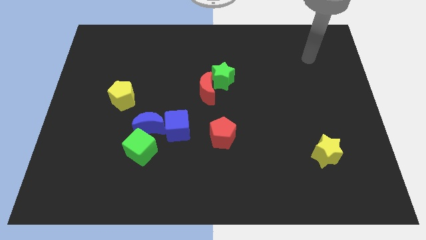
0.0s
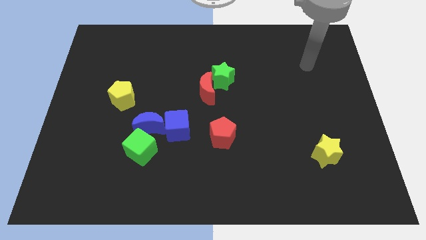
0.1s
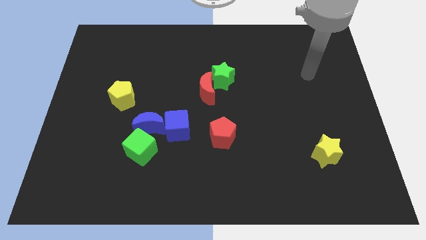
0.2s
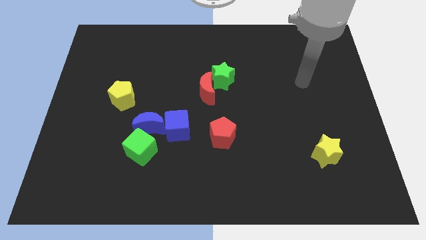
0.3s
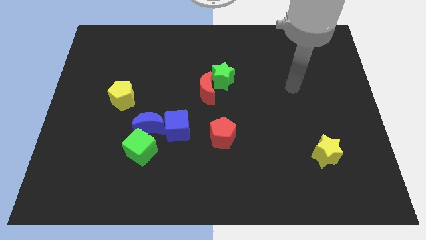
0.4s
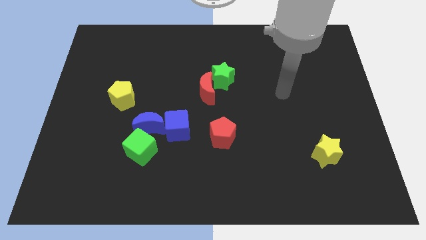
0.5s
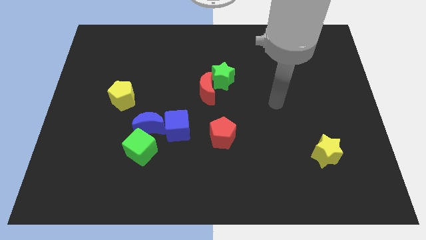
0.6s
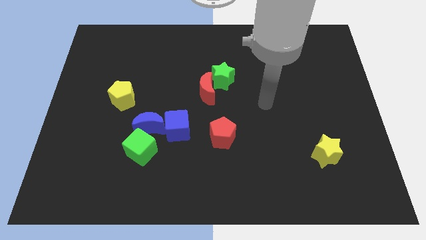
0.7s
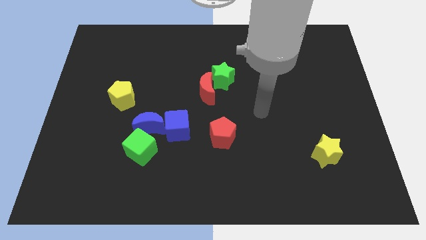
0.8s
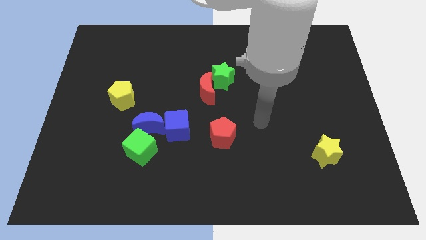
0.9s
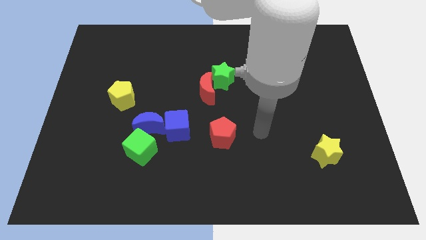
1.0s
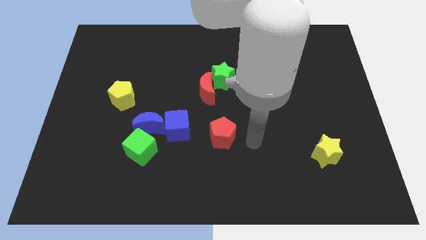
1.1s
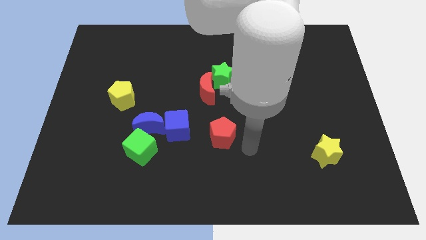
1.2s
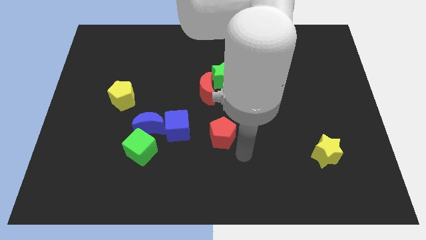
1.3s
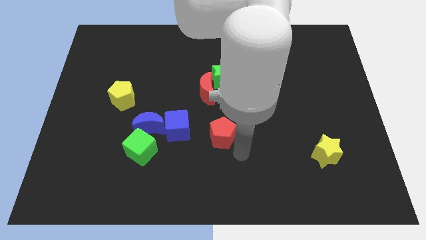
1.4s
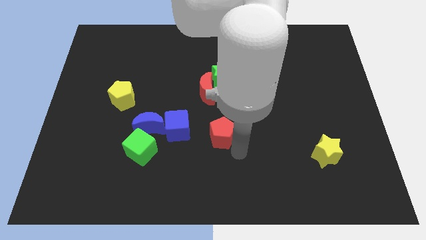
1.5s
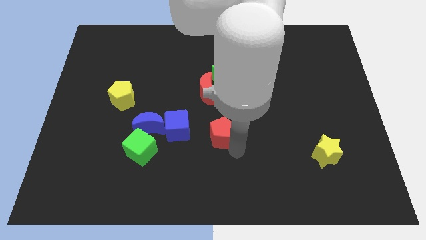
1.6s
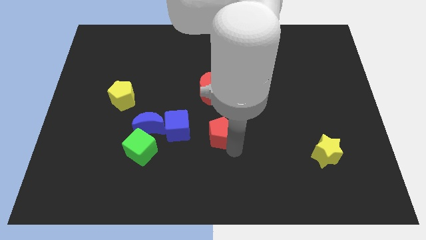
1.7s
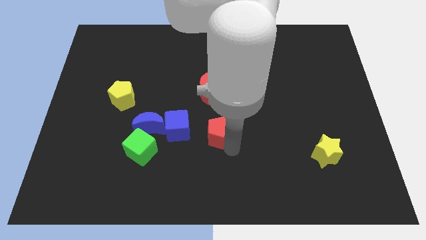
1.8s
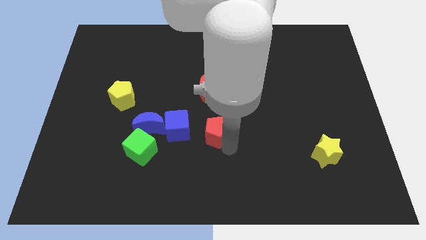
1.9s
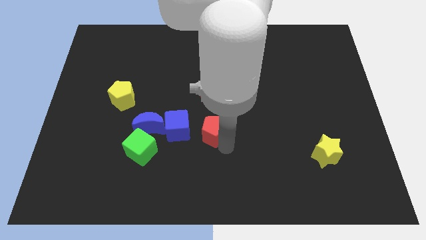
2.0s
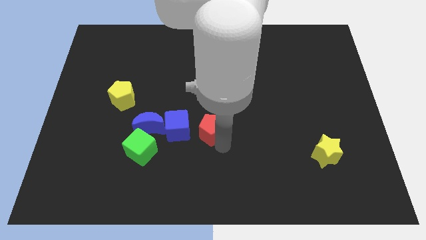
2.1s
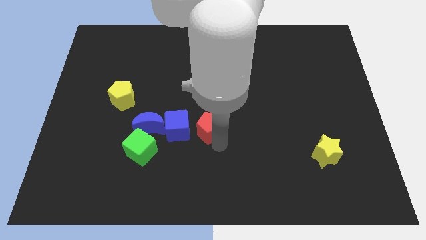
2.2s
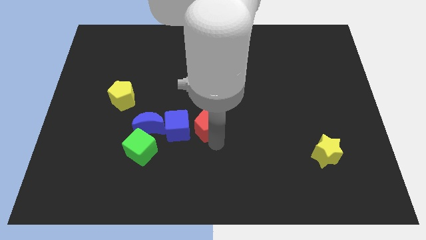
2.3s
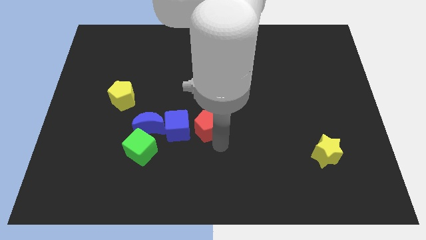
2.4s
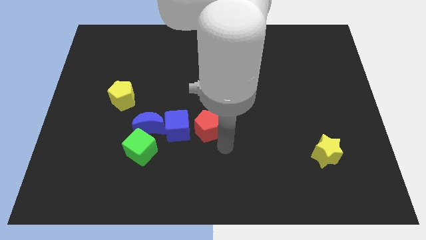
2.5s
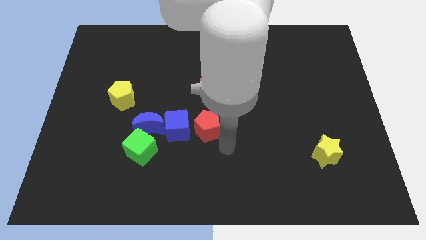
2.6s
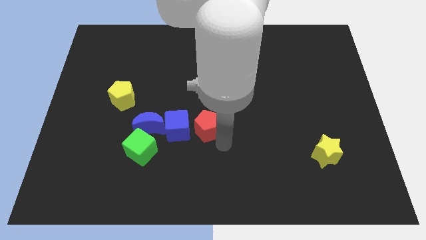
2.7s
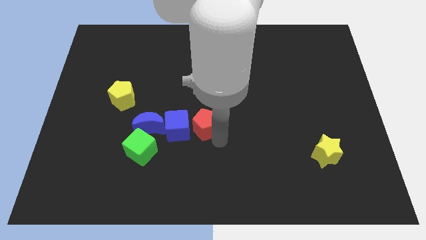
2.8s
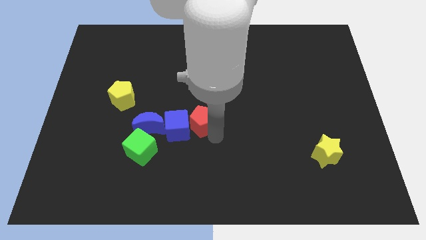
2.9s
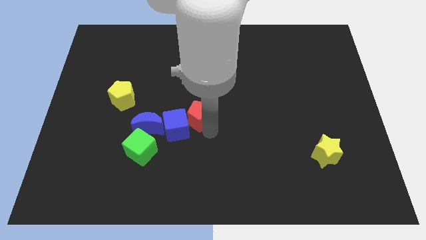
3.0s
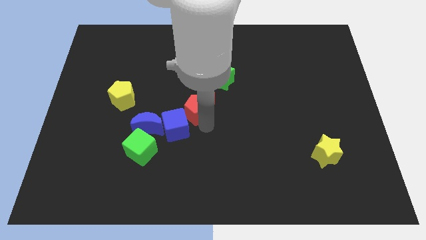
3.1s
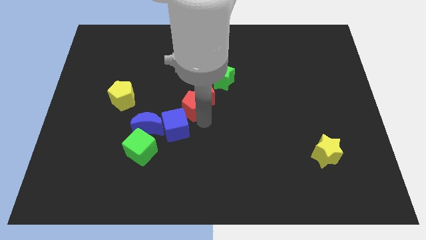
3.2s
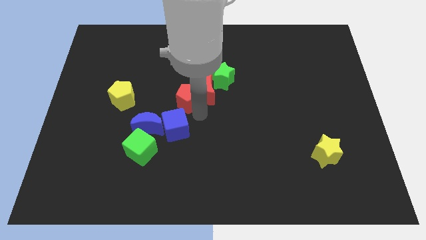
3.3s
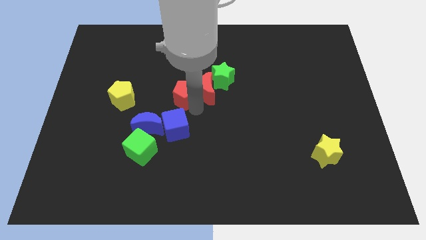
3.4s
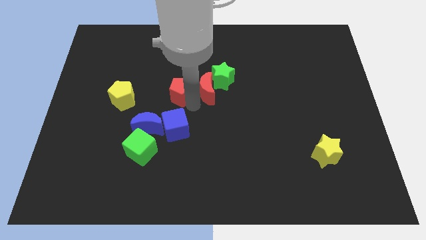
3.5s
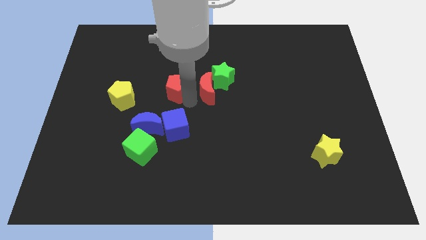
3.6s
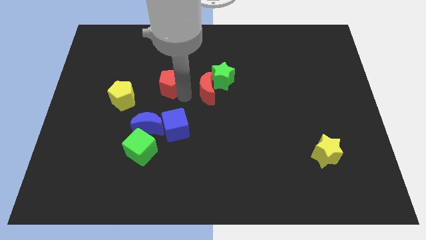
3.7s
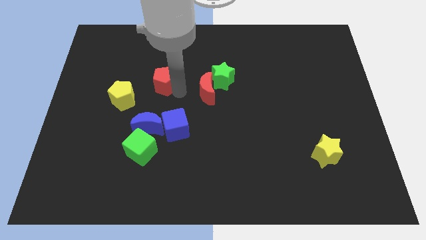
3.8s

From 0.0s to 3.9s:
move the red pentagon upwards and left

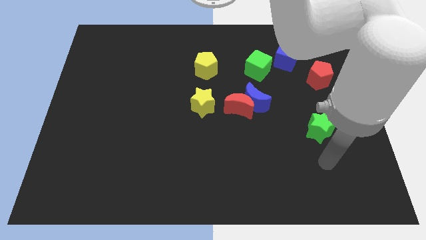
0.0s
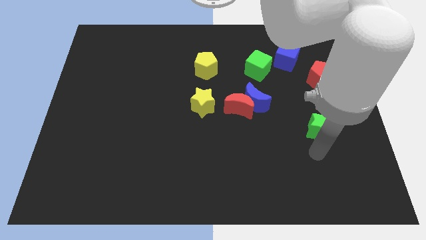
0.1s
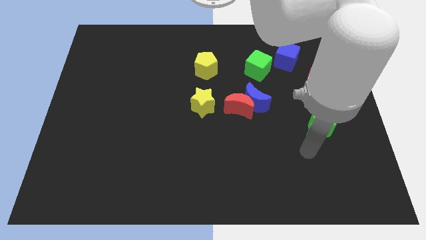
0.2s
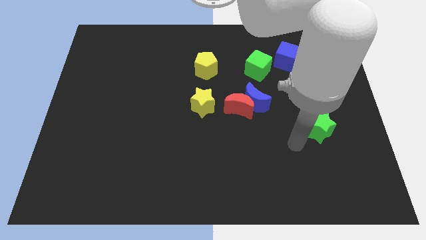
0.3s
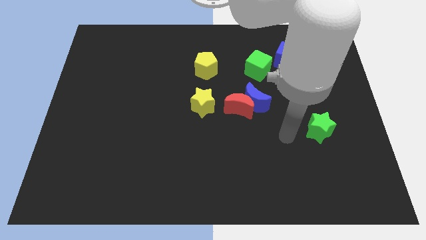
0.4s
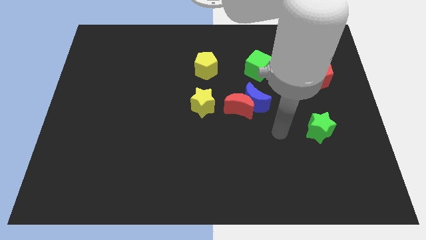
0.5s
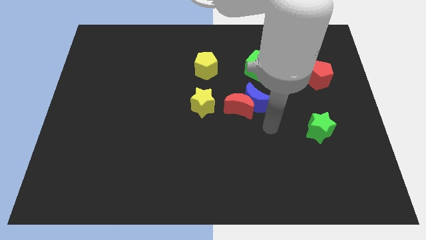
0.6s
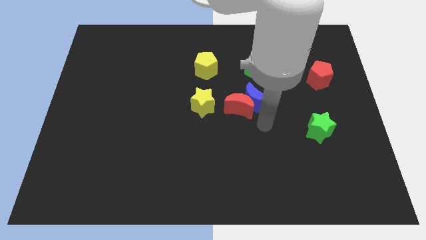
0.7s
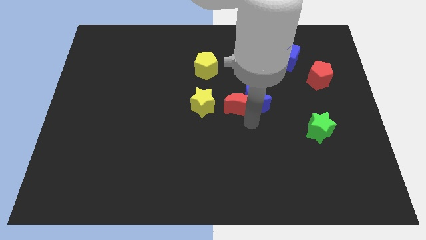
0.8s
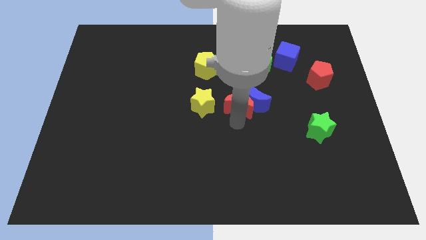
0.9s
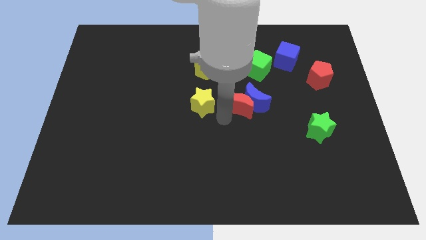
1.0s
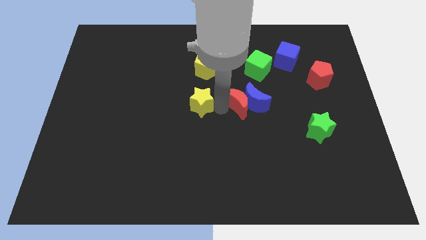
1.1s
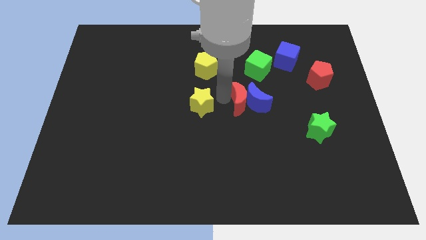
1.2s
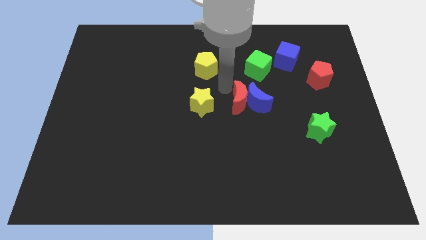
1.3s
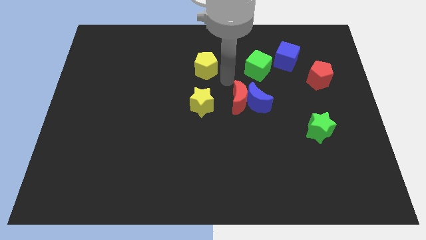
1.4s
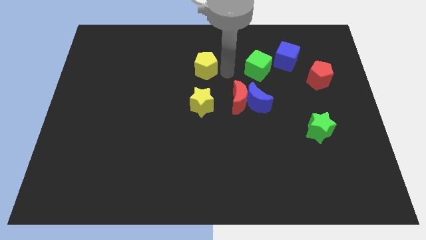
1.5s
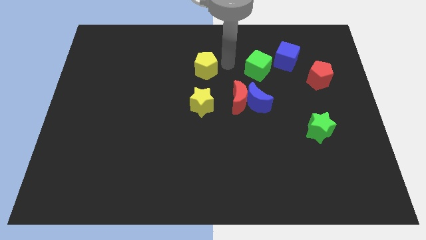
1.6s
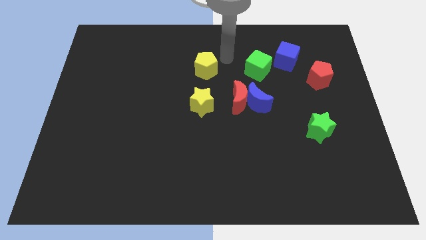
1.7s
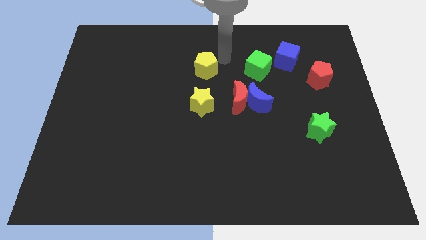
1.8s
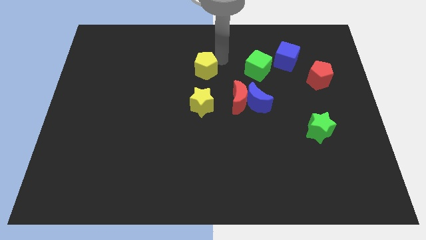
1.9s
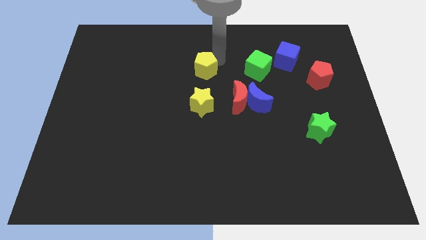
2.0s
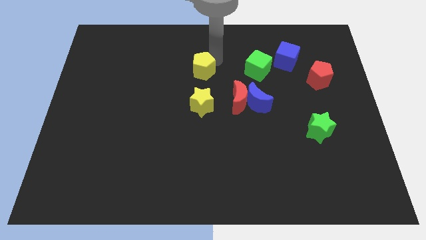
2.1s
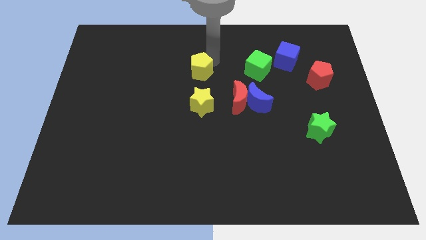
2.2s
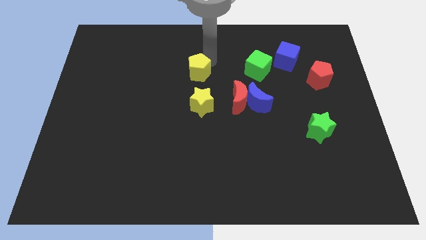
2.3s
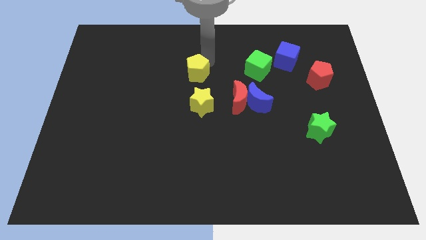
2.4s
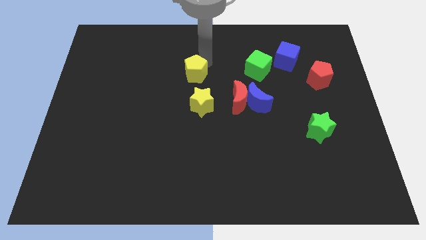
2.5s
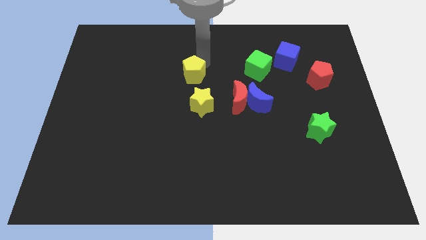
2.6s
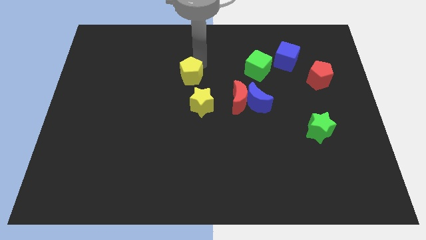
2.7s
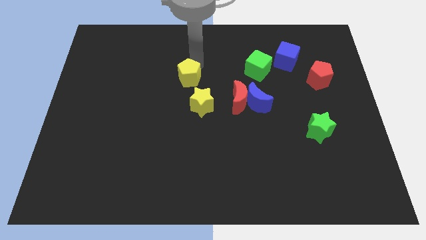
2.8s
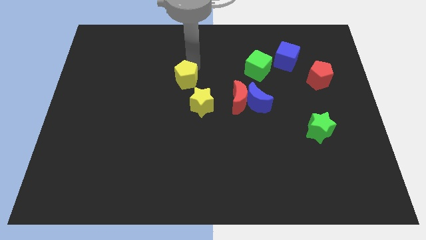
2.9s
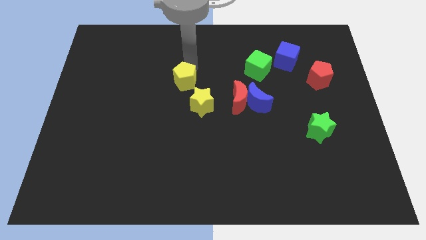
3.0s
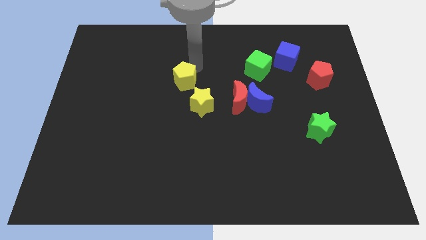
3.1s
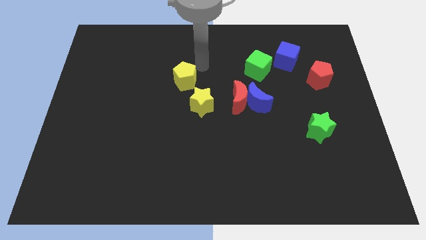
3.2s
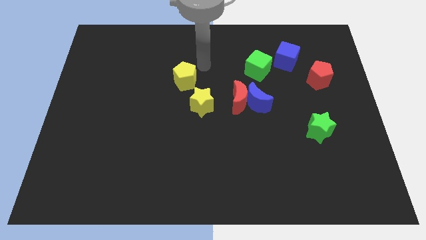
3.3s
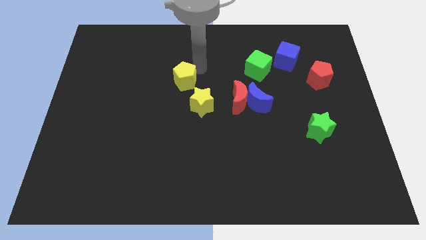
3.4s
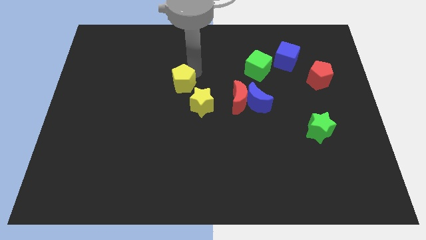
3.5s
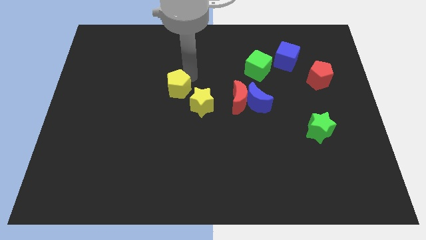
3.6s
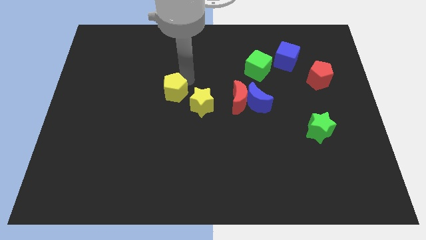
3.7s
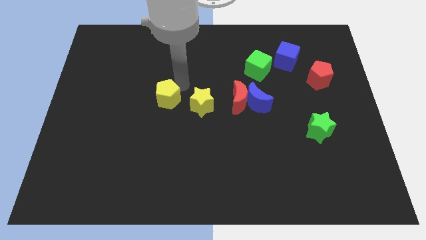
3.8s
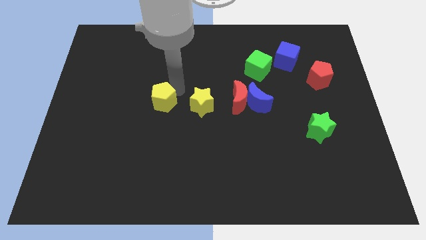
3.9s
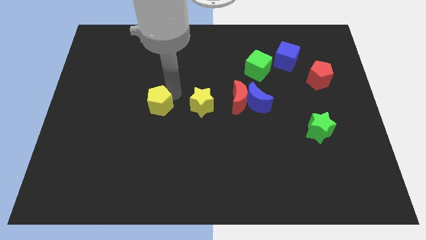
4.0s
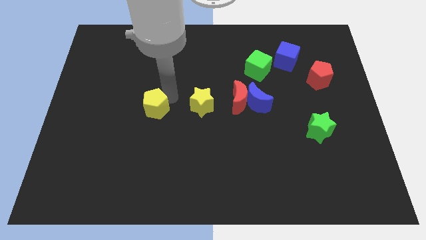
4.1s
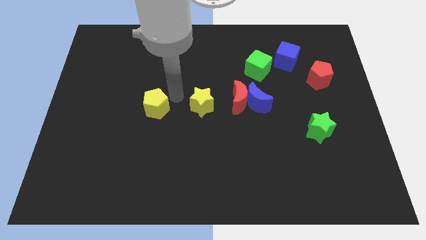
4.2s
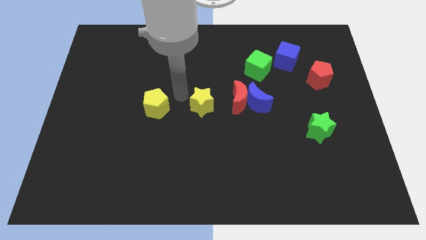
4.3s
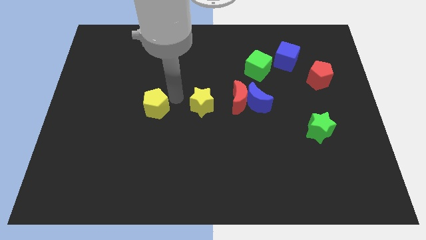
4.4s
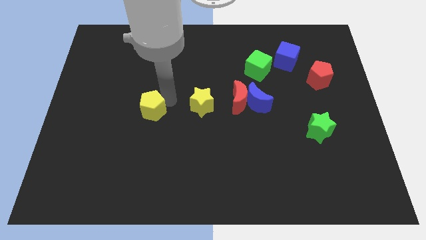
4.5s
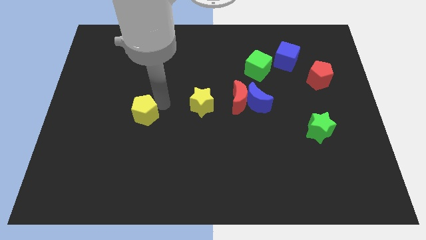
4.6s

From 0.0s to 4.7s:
move the yellow pentagon downwards and then left
